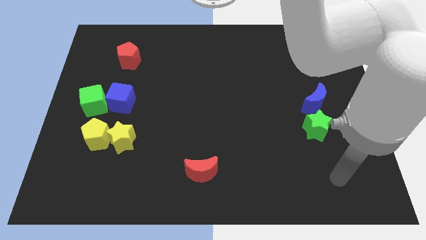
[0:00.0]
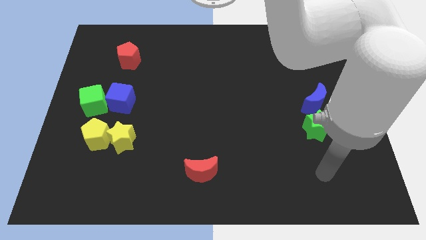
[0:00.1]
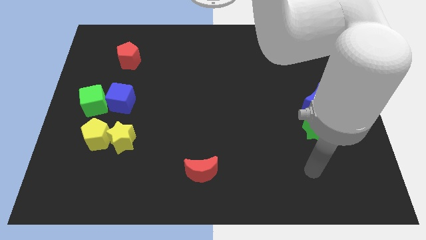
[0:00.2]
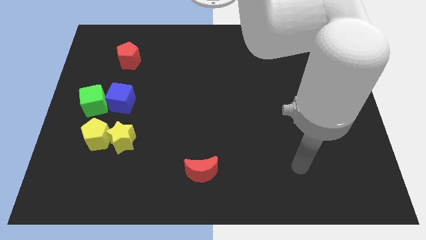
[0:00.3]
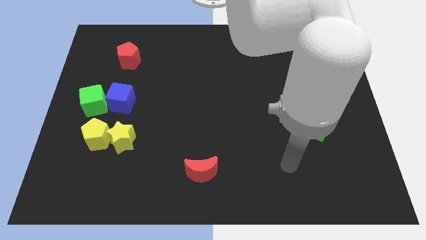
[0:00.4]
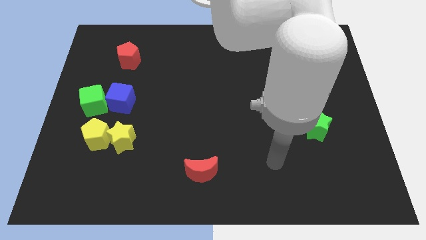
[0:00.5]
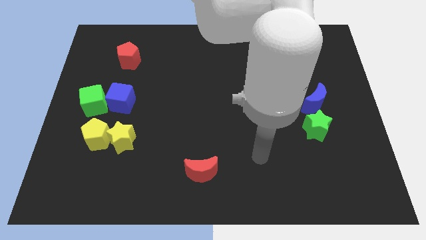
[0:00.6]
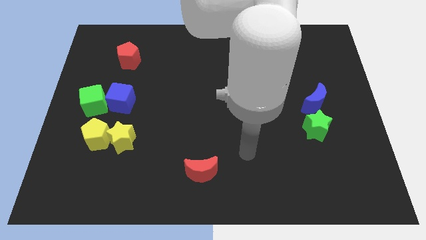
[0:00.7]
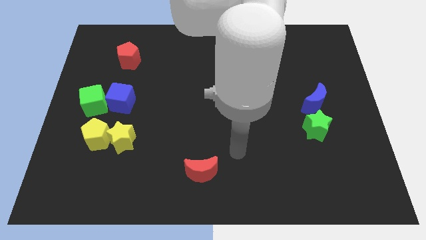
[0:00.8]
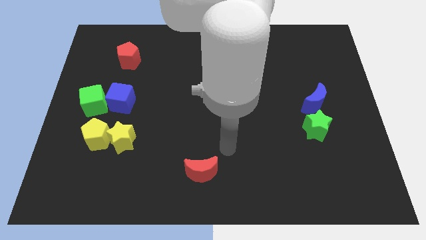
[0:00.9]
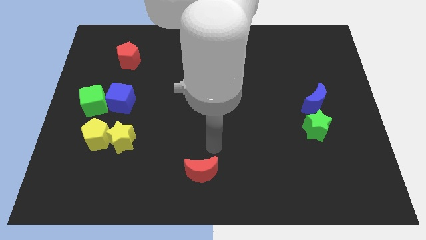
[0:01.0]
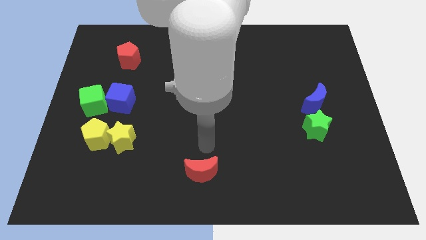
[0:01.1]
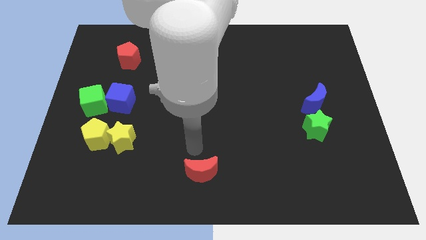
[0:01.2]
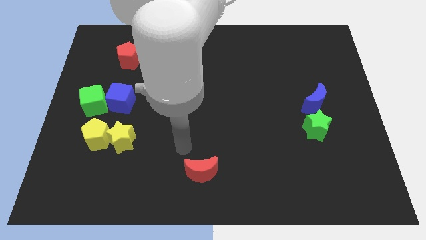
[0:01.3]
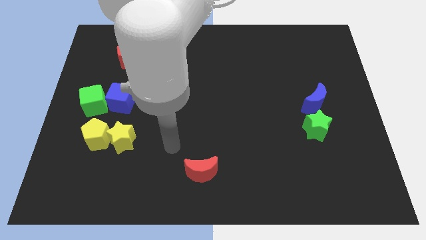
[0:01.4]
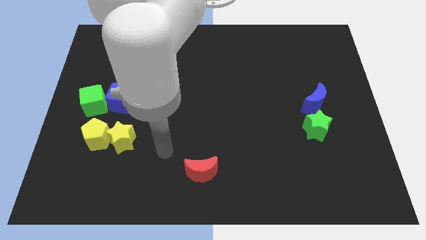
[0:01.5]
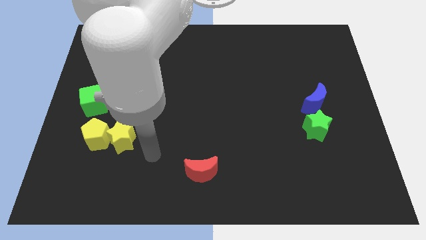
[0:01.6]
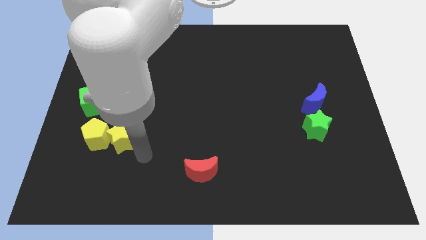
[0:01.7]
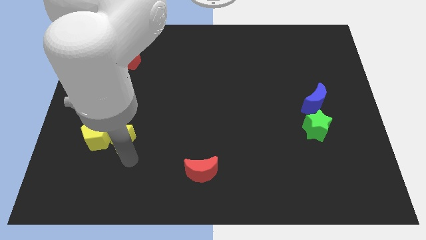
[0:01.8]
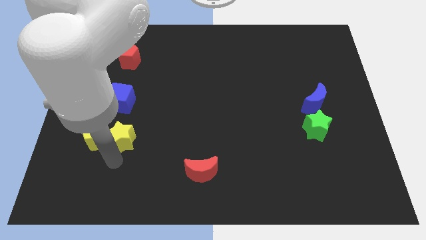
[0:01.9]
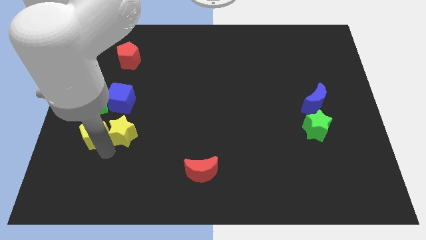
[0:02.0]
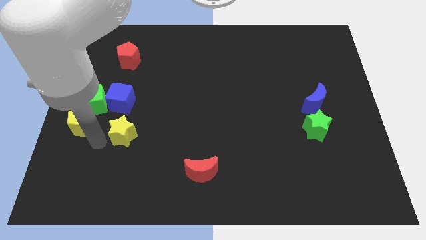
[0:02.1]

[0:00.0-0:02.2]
move the yellow star away from the yellow pentagon

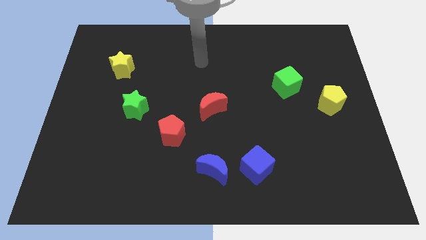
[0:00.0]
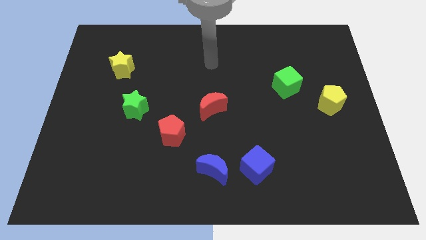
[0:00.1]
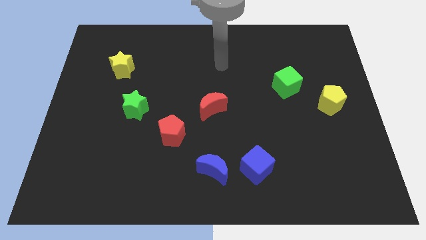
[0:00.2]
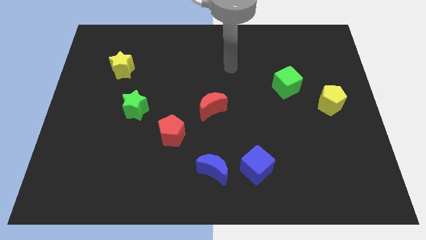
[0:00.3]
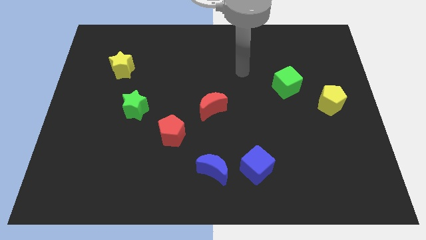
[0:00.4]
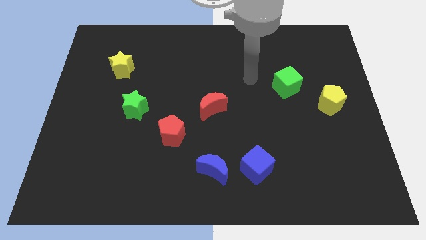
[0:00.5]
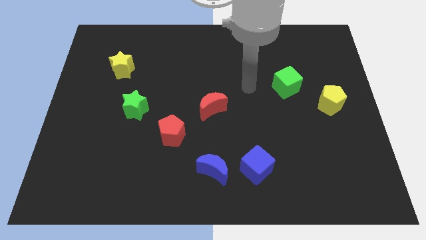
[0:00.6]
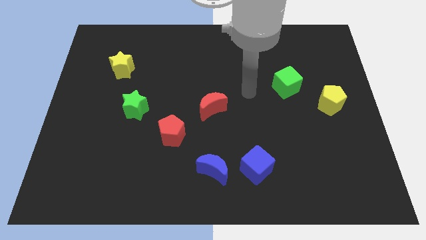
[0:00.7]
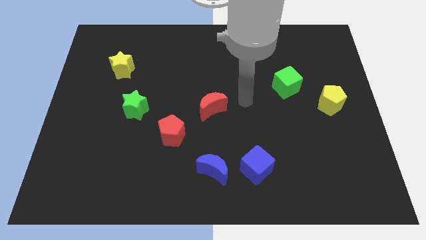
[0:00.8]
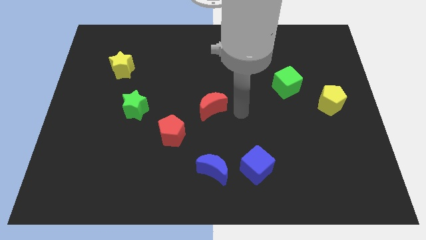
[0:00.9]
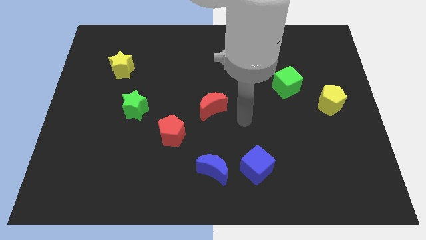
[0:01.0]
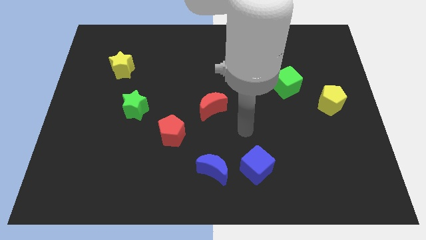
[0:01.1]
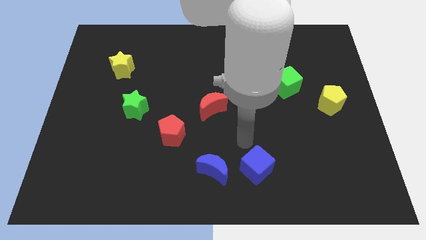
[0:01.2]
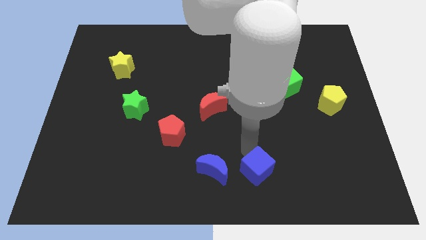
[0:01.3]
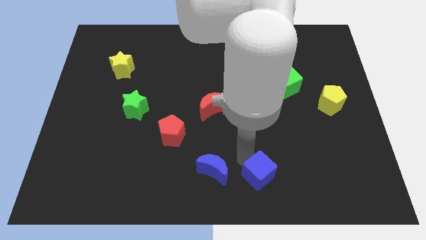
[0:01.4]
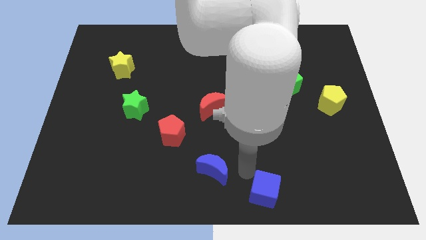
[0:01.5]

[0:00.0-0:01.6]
separate the blue moon from the blue cube

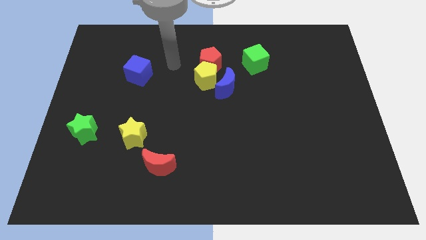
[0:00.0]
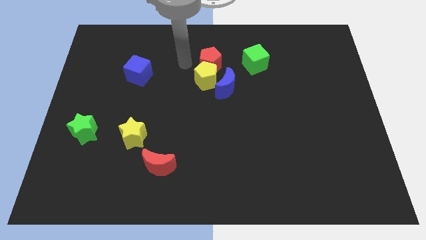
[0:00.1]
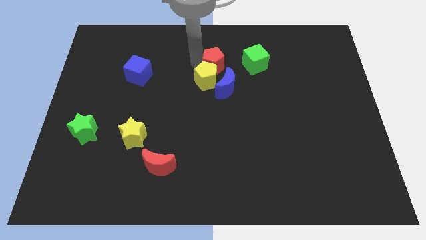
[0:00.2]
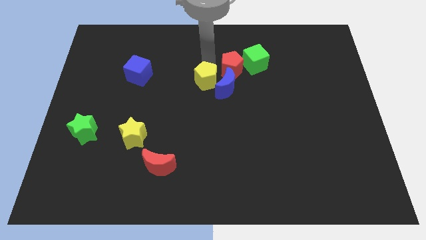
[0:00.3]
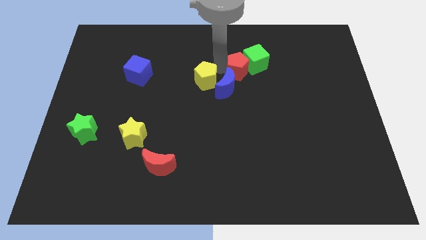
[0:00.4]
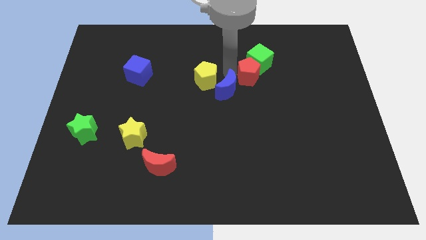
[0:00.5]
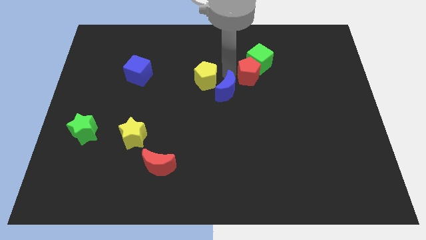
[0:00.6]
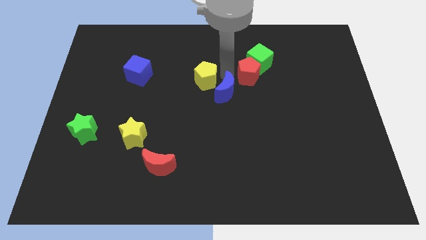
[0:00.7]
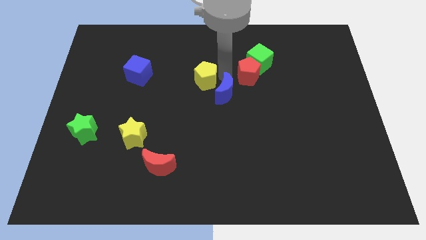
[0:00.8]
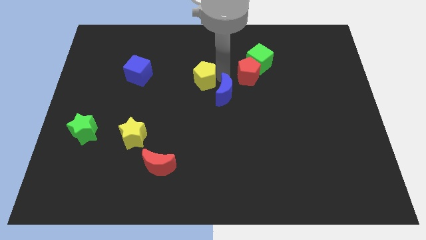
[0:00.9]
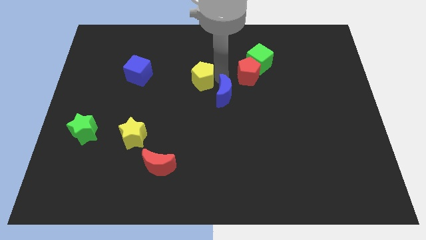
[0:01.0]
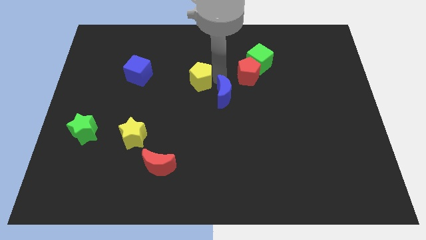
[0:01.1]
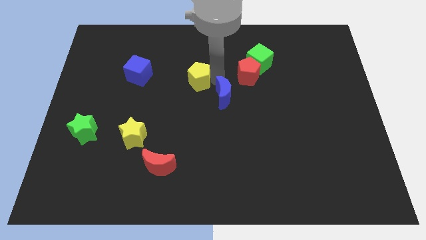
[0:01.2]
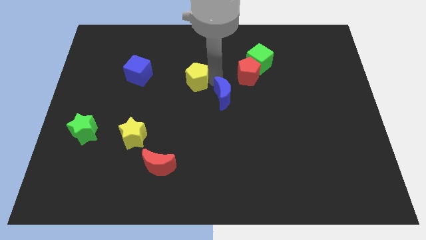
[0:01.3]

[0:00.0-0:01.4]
move the yellow pentagon away from the red pentagon and blue moon

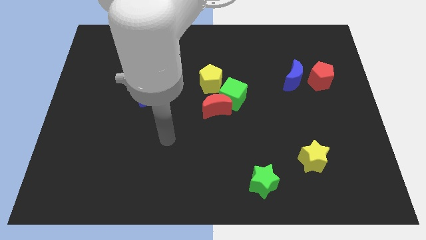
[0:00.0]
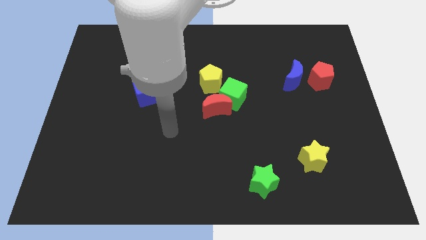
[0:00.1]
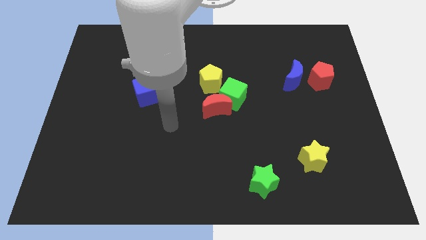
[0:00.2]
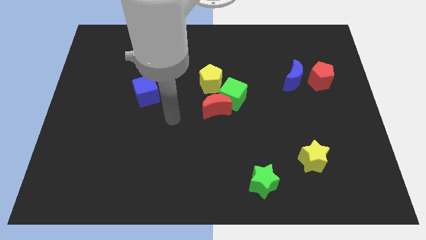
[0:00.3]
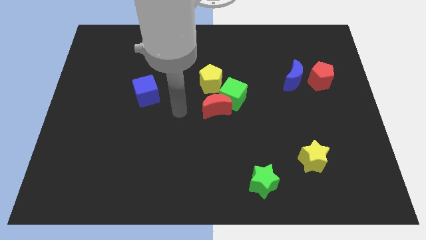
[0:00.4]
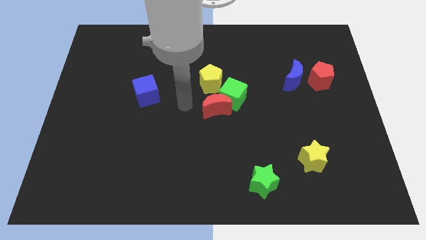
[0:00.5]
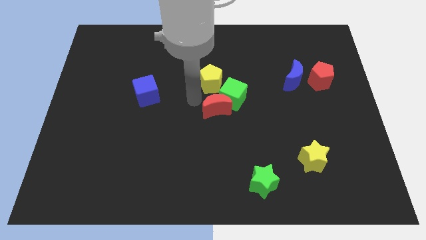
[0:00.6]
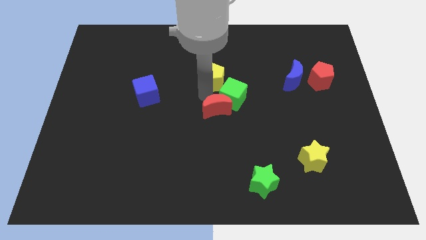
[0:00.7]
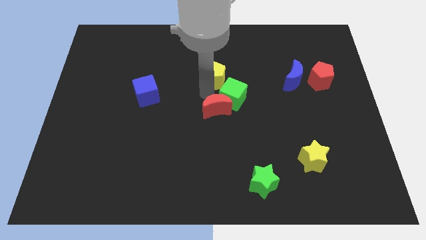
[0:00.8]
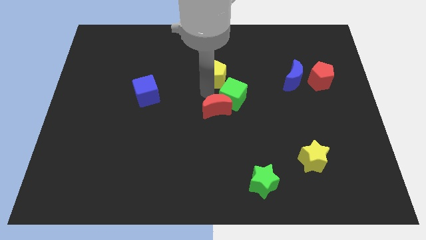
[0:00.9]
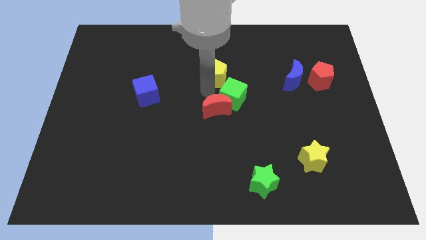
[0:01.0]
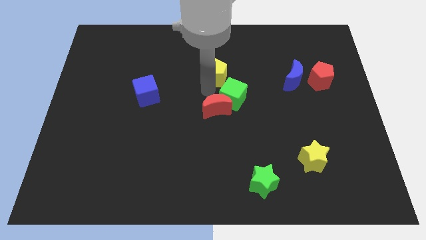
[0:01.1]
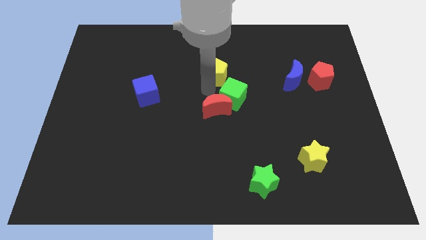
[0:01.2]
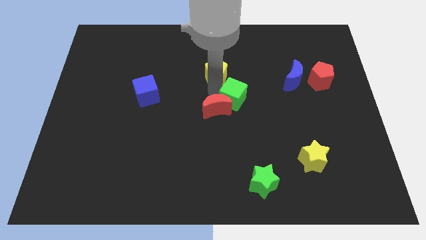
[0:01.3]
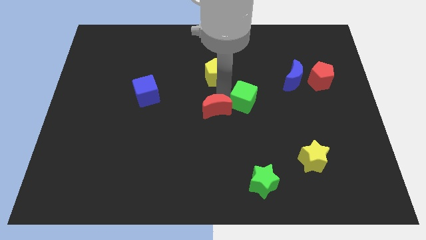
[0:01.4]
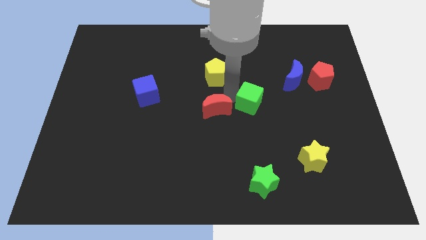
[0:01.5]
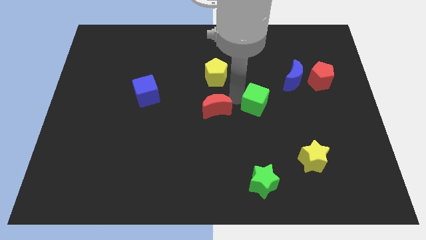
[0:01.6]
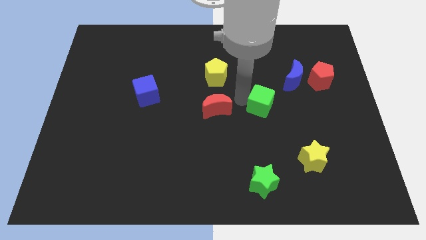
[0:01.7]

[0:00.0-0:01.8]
separate the green cube from the red moon and yellow pentagon

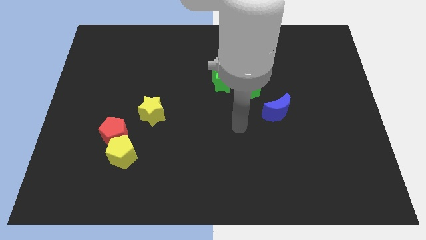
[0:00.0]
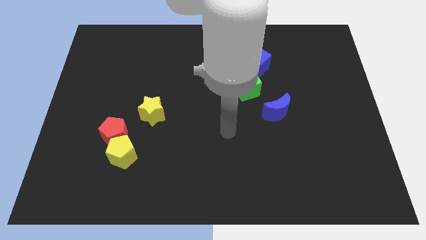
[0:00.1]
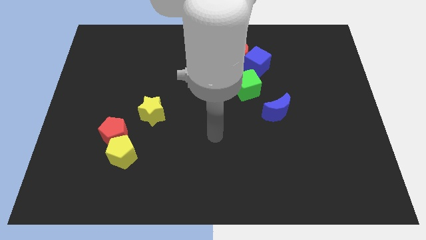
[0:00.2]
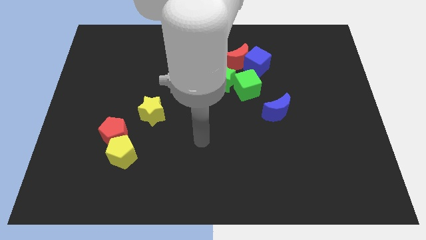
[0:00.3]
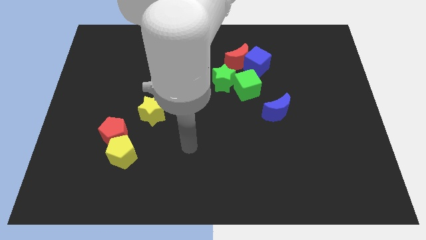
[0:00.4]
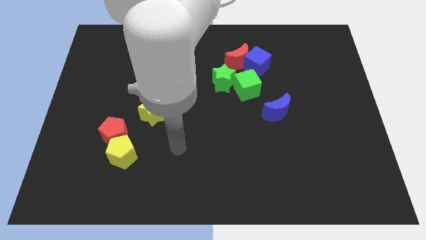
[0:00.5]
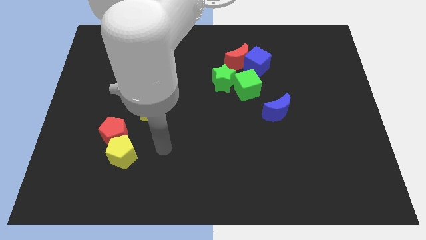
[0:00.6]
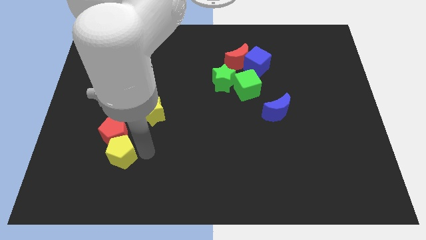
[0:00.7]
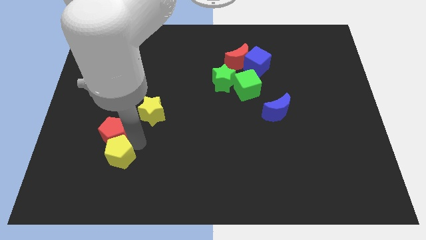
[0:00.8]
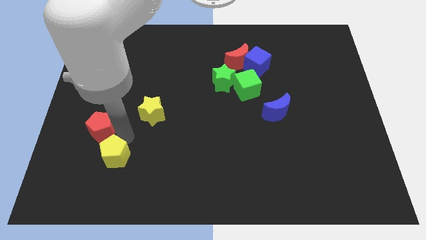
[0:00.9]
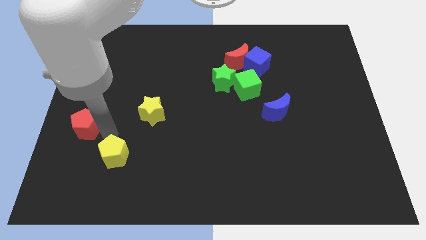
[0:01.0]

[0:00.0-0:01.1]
move the yellow pentagon away from the red pentagon

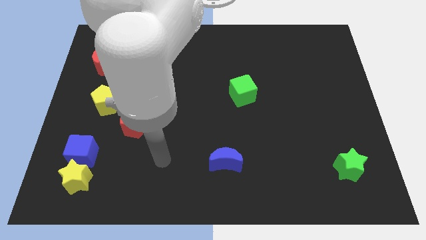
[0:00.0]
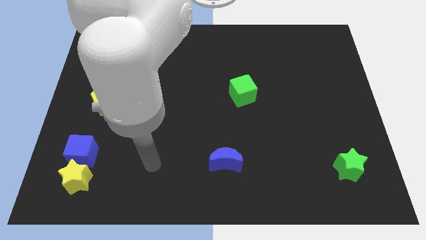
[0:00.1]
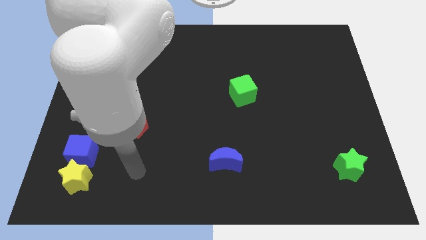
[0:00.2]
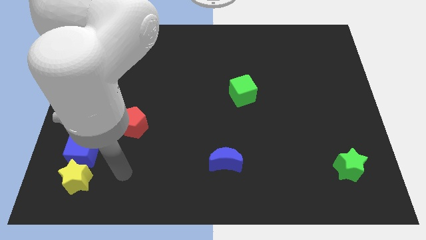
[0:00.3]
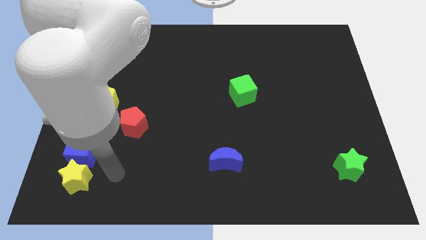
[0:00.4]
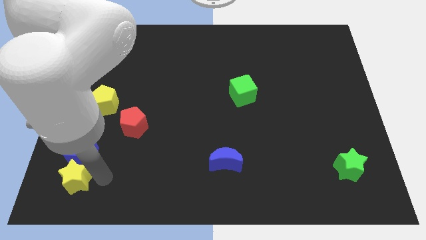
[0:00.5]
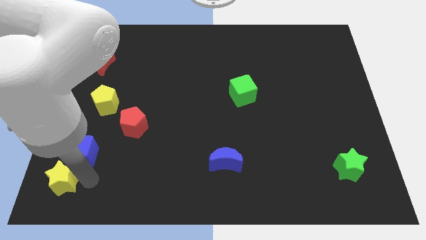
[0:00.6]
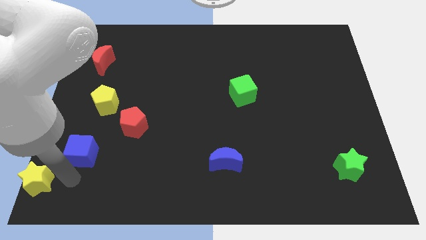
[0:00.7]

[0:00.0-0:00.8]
move the blue cube away from the yellow star

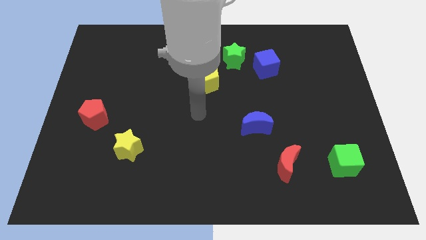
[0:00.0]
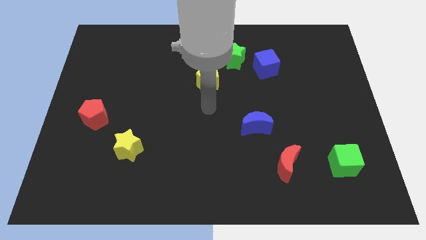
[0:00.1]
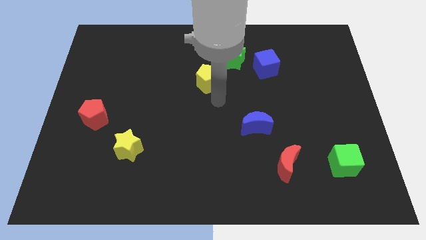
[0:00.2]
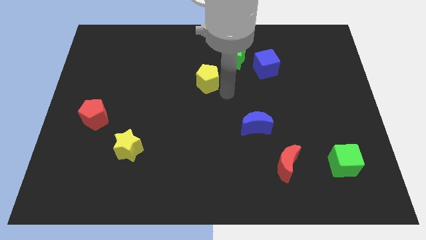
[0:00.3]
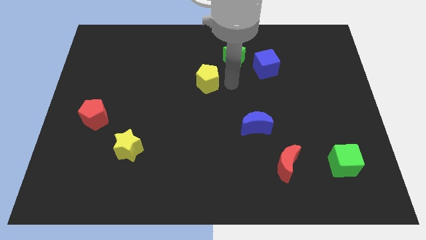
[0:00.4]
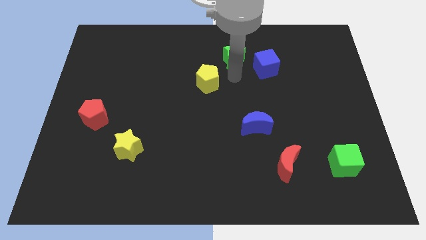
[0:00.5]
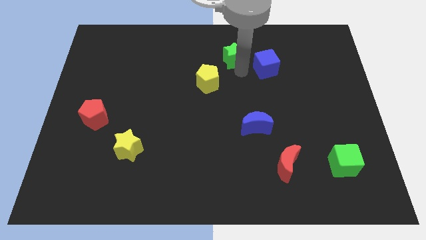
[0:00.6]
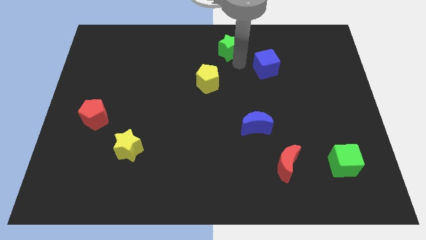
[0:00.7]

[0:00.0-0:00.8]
pull the blue cube apart from the green star
